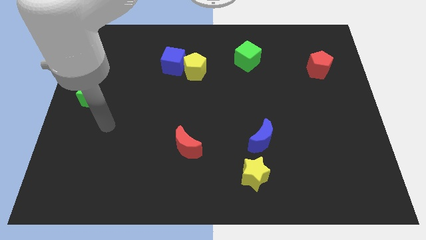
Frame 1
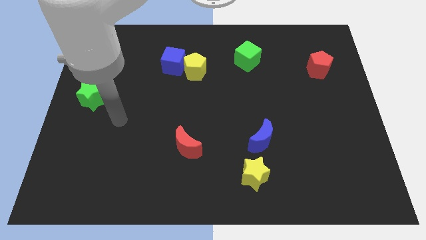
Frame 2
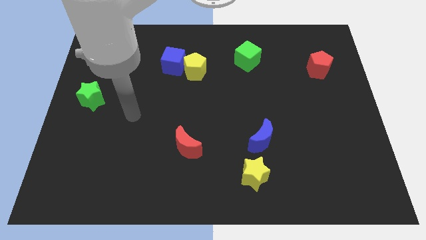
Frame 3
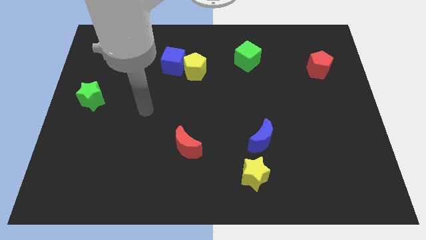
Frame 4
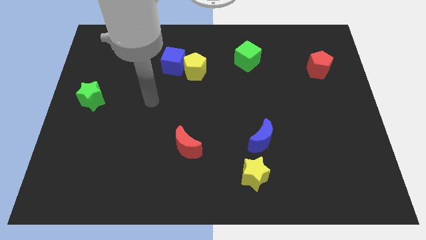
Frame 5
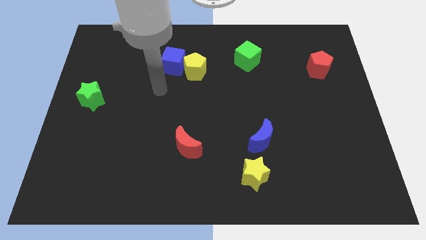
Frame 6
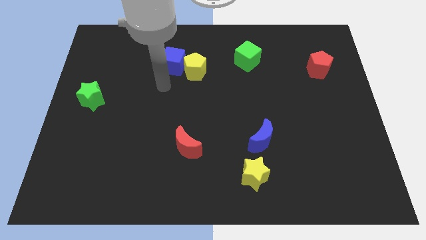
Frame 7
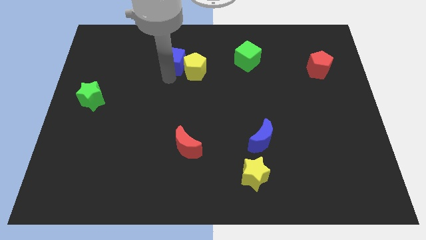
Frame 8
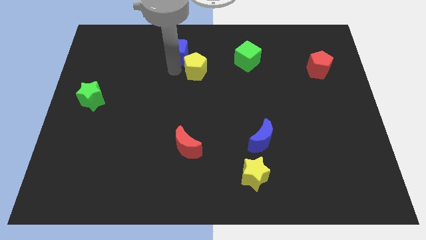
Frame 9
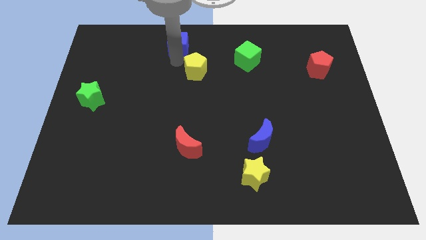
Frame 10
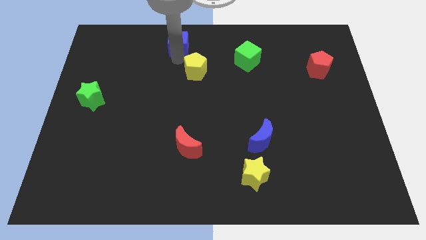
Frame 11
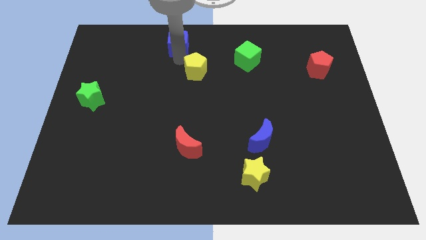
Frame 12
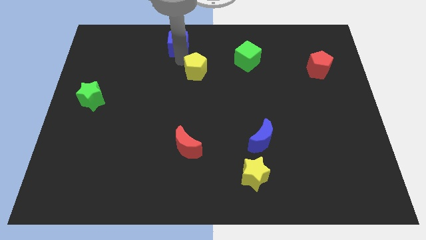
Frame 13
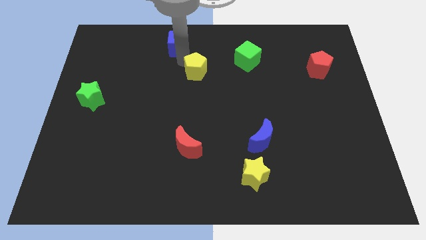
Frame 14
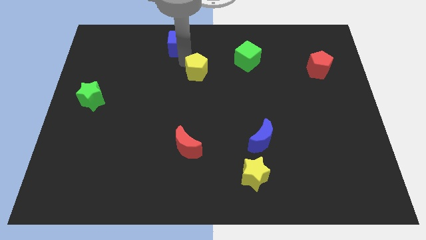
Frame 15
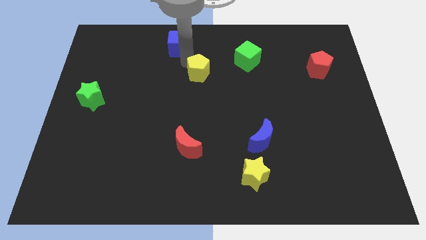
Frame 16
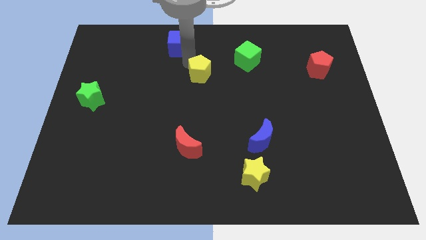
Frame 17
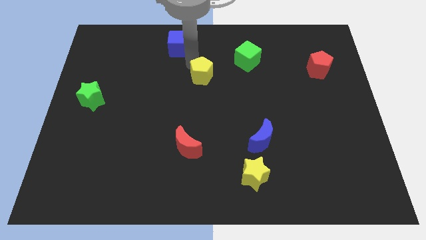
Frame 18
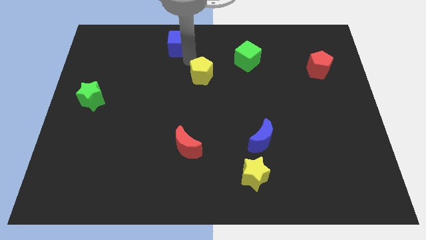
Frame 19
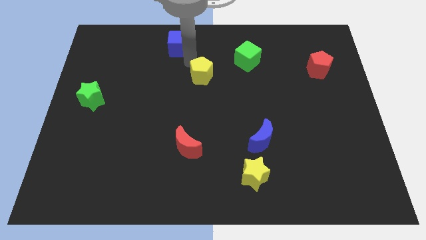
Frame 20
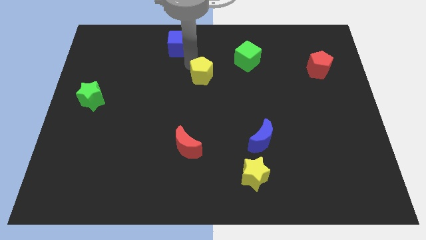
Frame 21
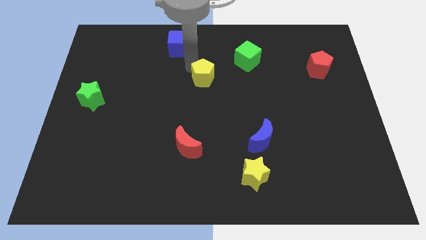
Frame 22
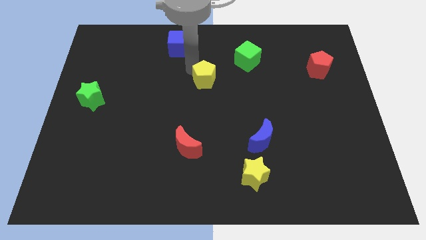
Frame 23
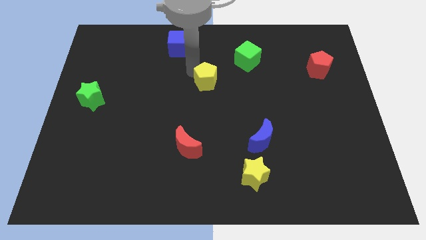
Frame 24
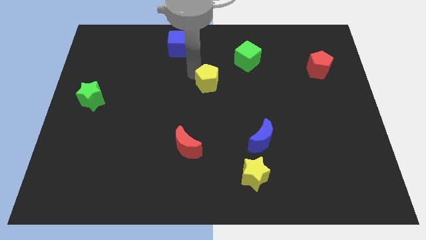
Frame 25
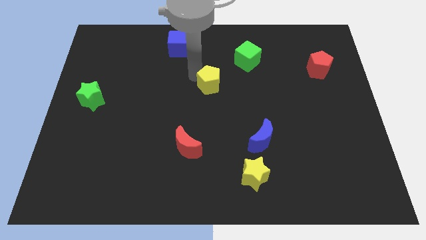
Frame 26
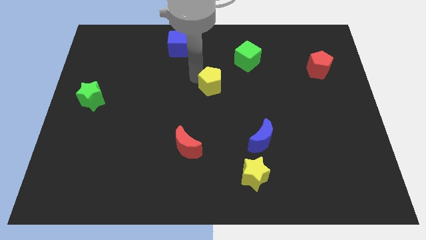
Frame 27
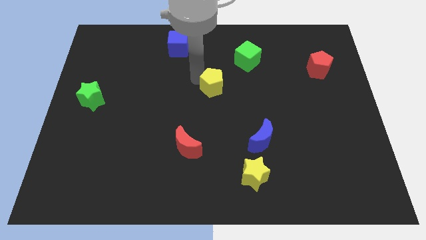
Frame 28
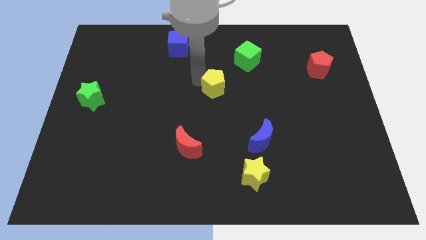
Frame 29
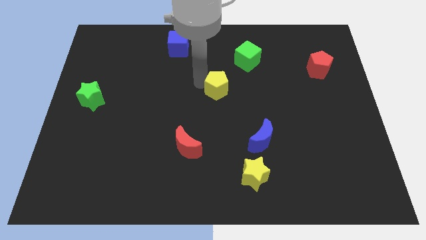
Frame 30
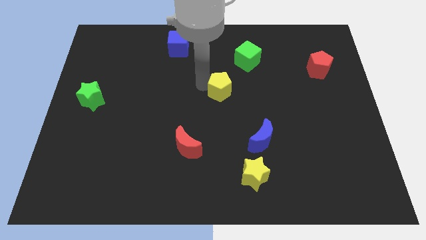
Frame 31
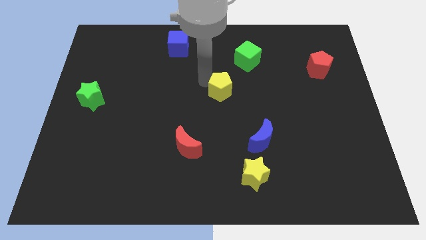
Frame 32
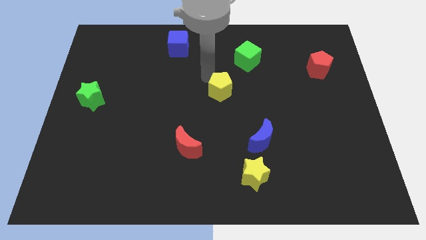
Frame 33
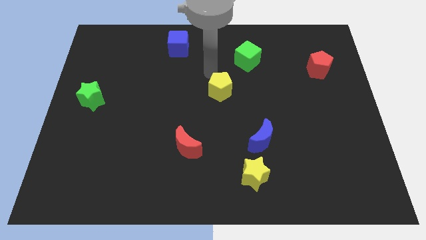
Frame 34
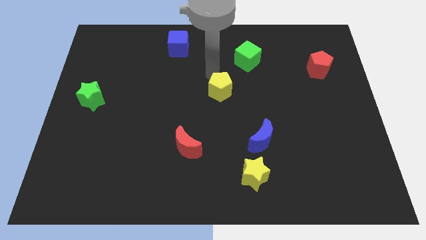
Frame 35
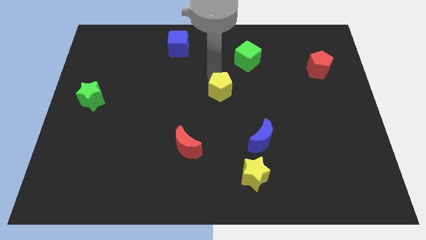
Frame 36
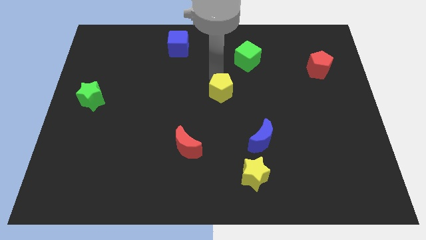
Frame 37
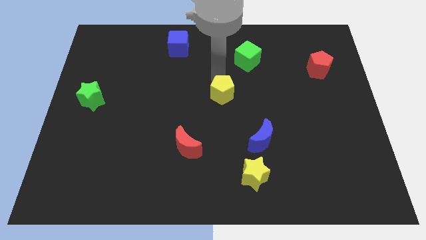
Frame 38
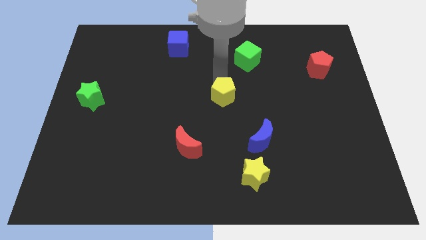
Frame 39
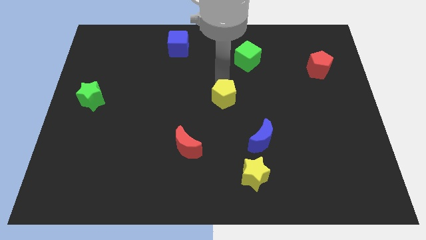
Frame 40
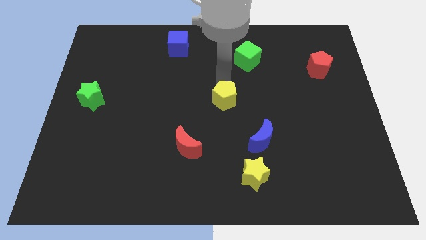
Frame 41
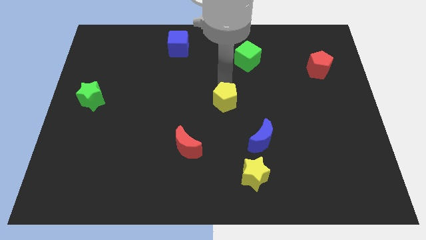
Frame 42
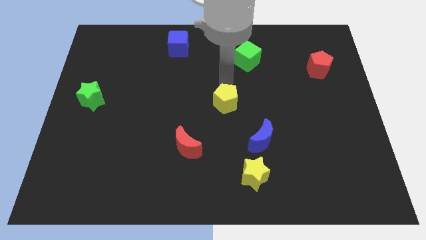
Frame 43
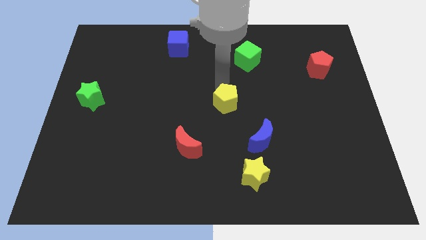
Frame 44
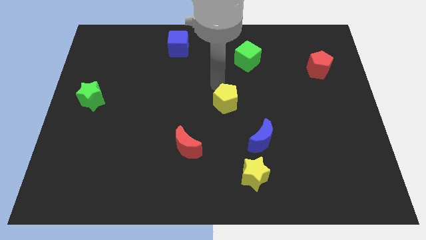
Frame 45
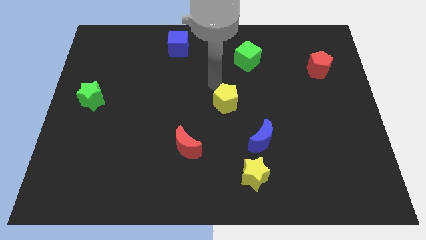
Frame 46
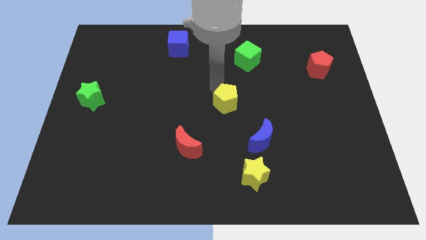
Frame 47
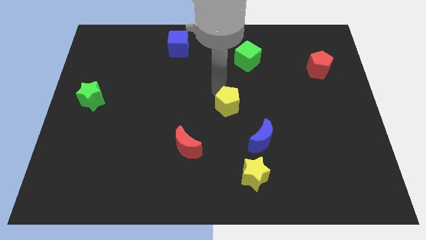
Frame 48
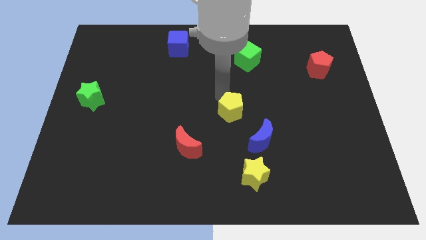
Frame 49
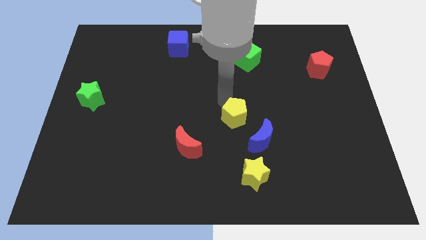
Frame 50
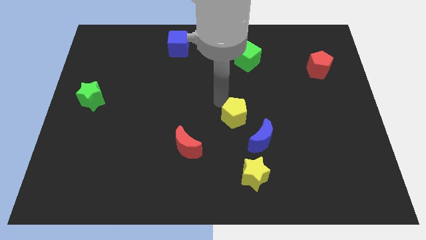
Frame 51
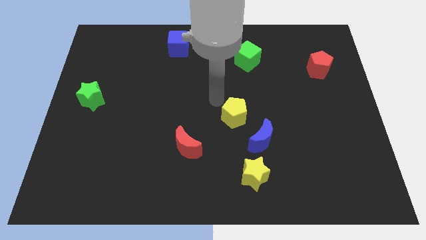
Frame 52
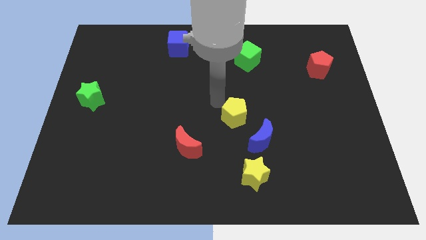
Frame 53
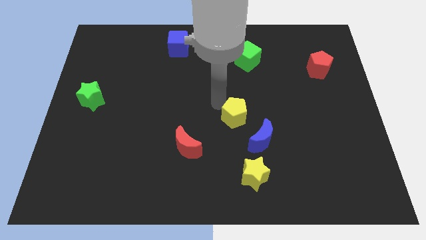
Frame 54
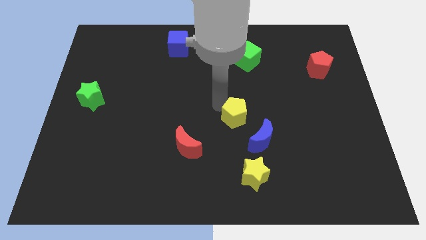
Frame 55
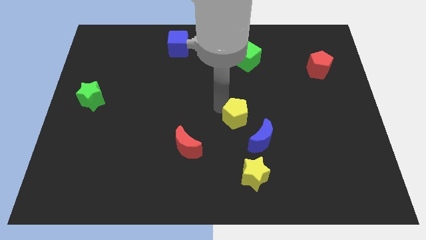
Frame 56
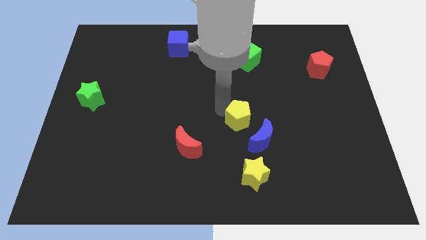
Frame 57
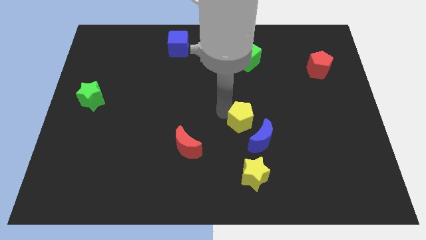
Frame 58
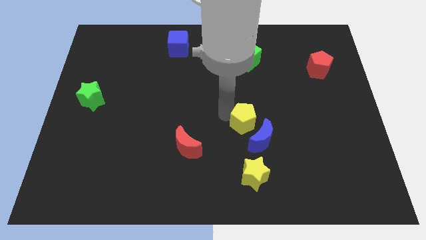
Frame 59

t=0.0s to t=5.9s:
push the yellow pentagon to the blue moon

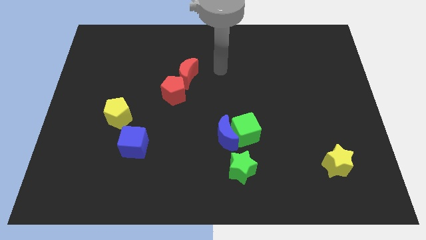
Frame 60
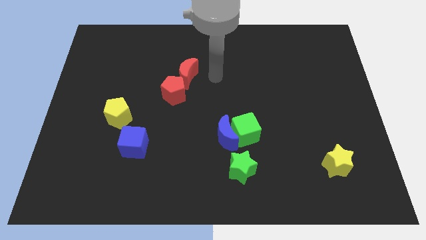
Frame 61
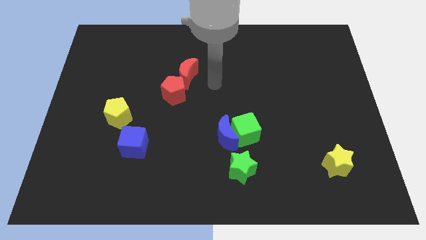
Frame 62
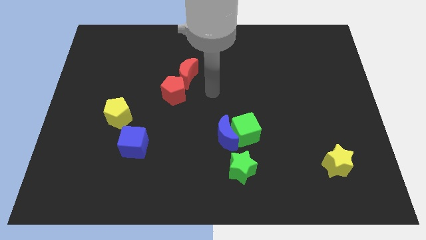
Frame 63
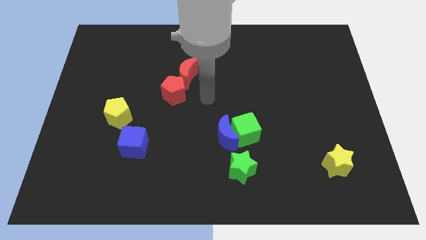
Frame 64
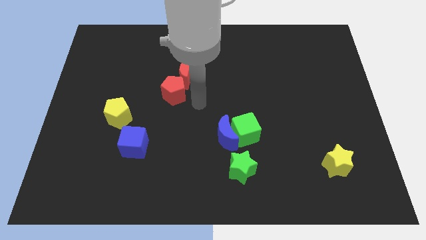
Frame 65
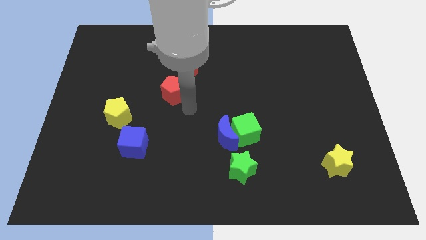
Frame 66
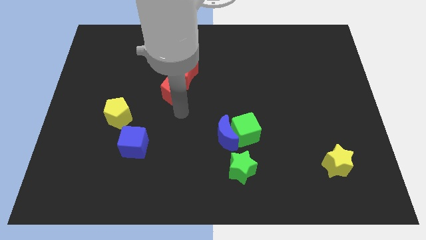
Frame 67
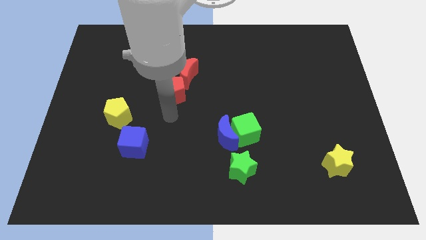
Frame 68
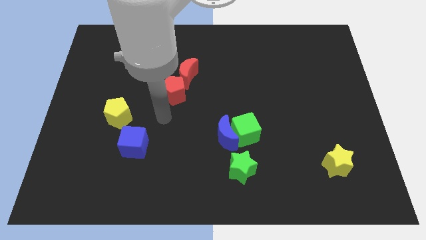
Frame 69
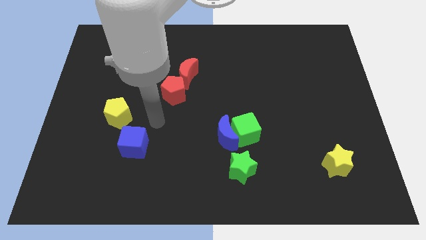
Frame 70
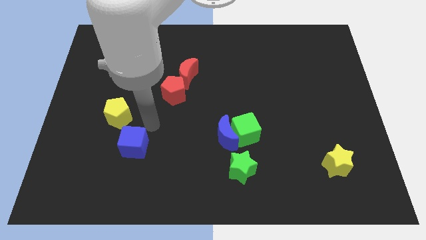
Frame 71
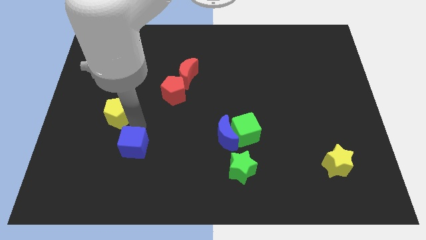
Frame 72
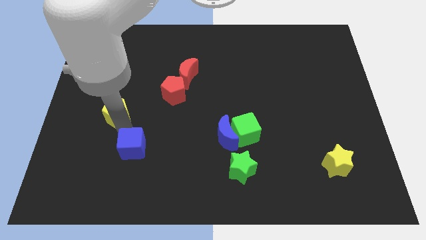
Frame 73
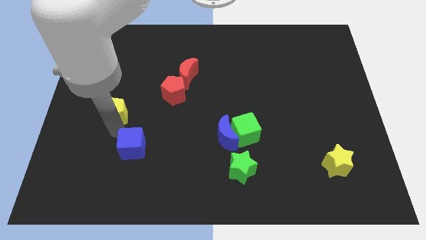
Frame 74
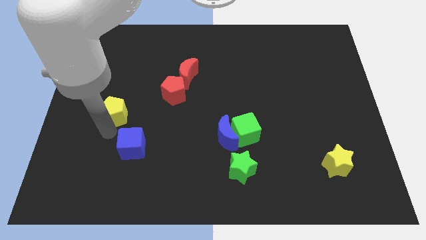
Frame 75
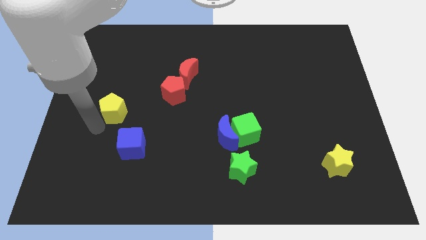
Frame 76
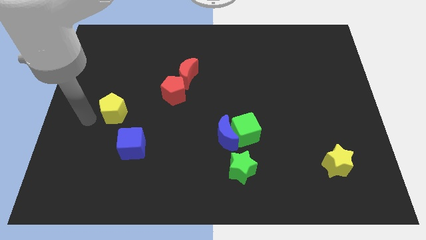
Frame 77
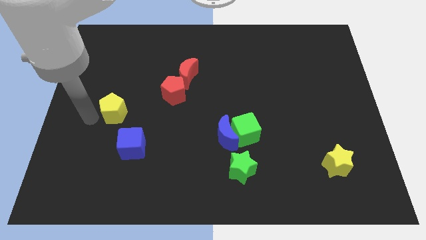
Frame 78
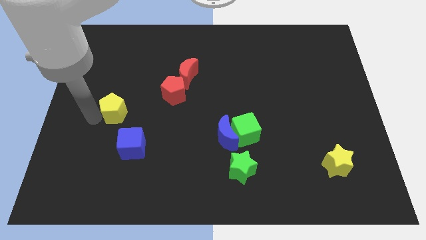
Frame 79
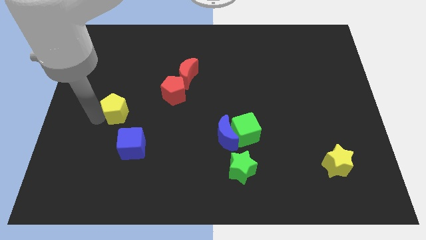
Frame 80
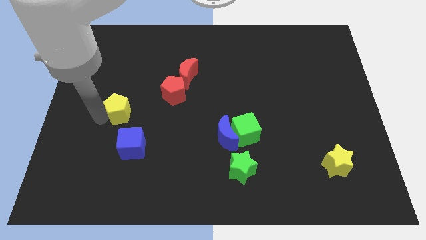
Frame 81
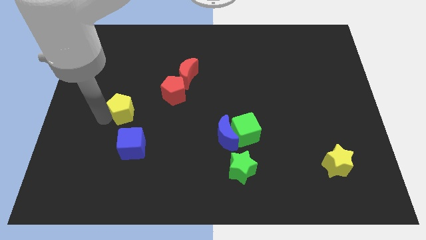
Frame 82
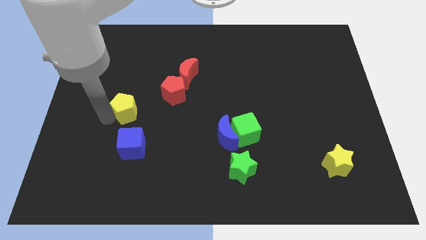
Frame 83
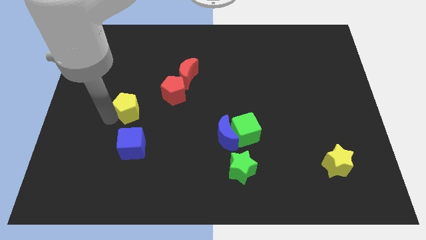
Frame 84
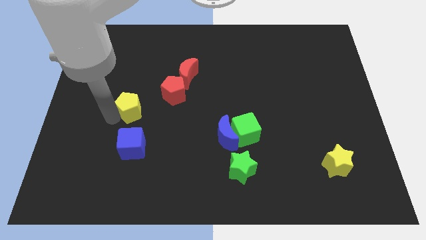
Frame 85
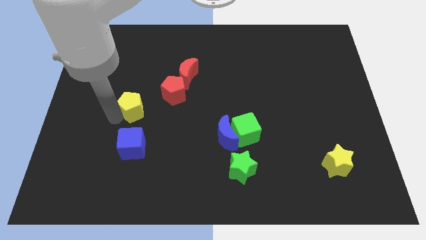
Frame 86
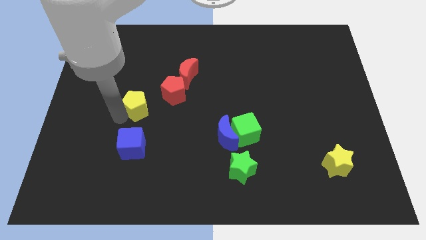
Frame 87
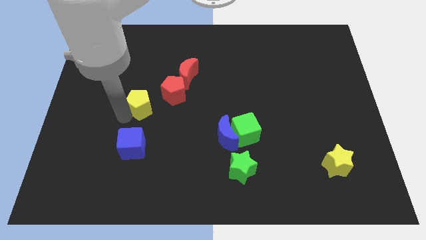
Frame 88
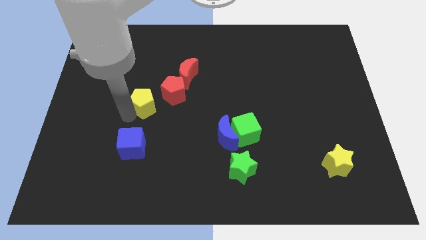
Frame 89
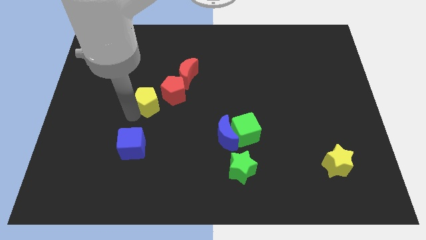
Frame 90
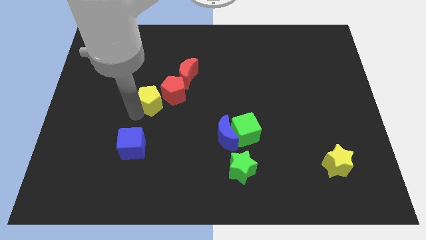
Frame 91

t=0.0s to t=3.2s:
move the yellow pentagon to the red pentagon
